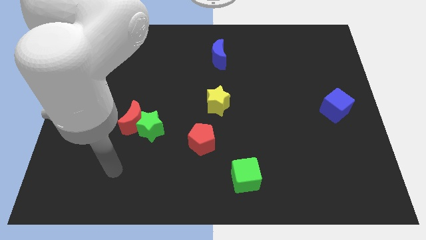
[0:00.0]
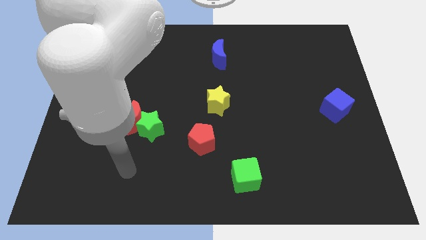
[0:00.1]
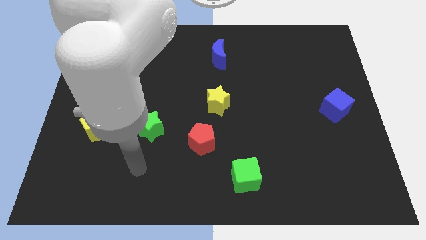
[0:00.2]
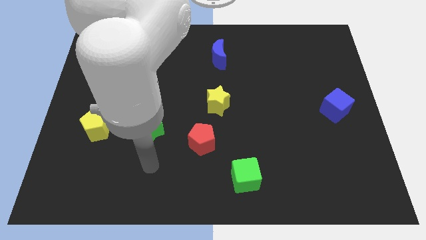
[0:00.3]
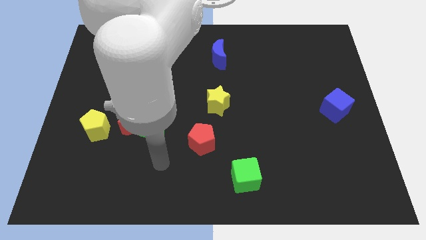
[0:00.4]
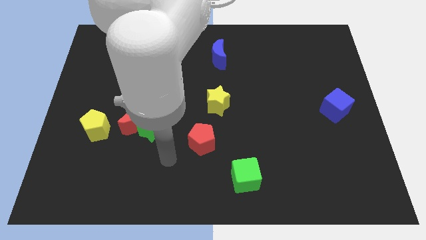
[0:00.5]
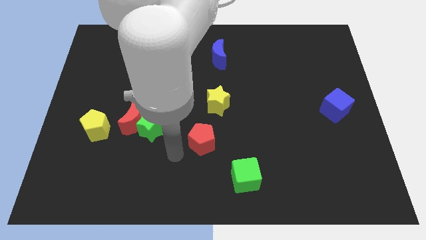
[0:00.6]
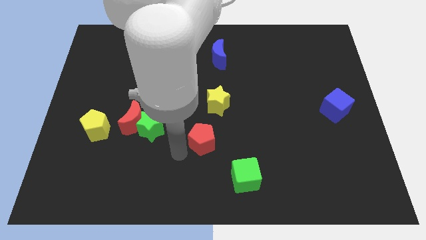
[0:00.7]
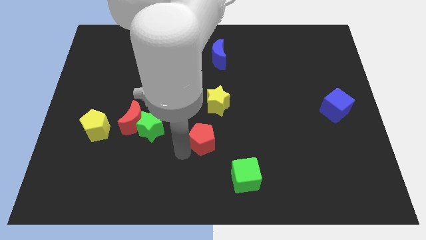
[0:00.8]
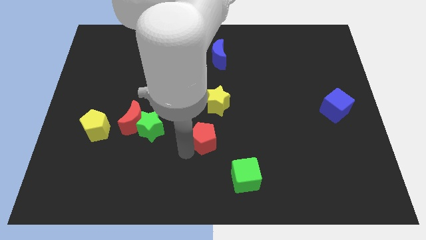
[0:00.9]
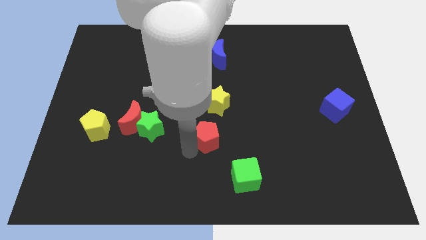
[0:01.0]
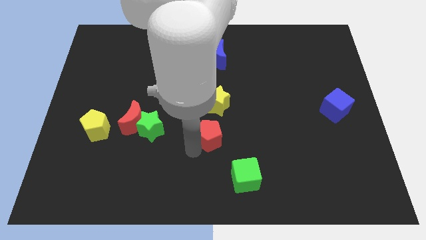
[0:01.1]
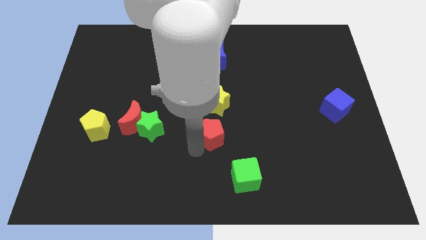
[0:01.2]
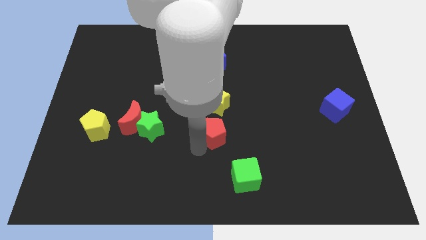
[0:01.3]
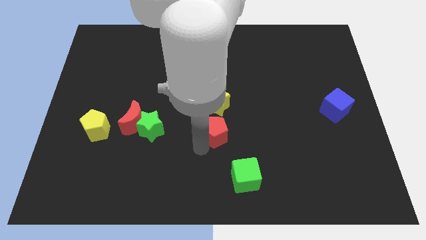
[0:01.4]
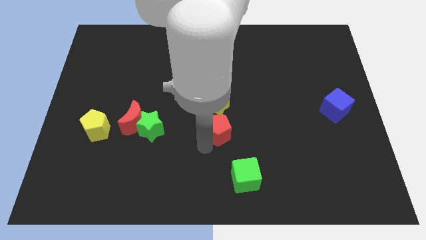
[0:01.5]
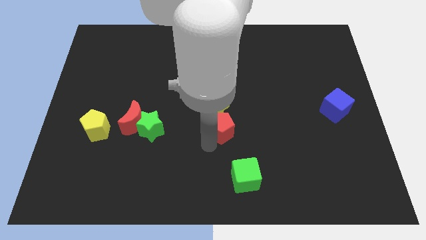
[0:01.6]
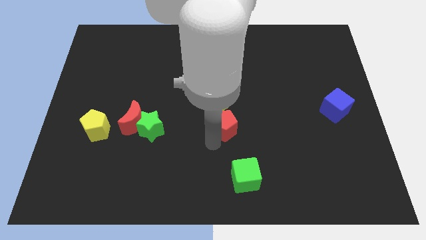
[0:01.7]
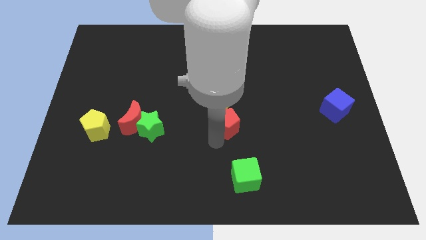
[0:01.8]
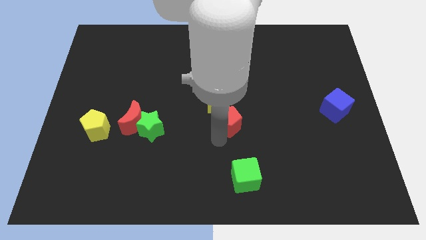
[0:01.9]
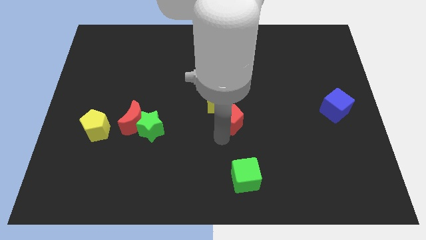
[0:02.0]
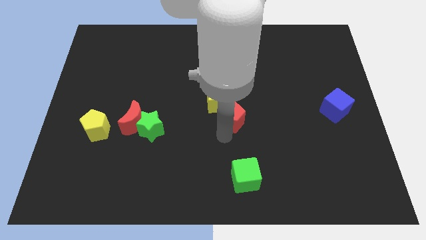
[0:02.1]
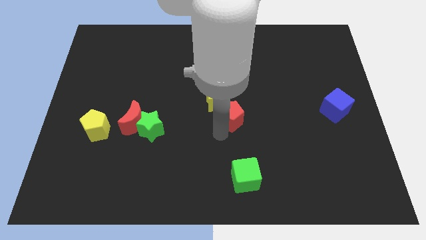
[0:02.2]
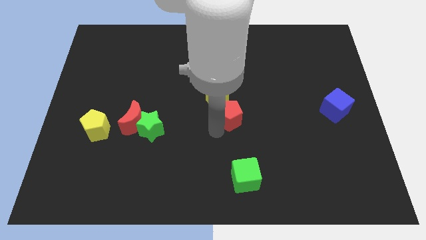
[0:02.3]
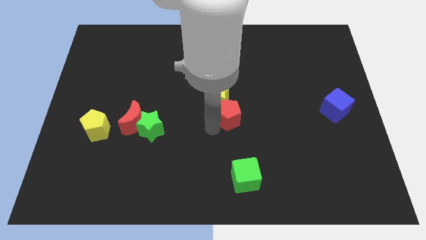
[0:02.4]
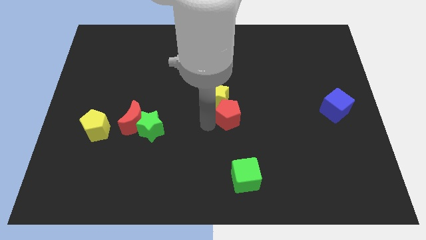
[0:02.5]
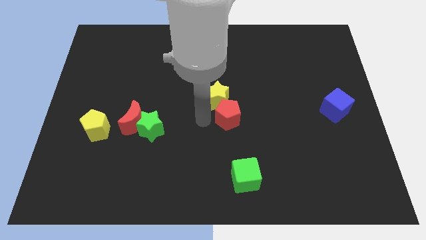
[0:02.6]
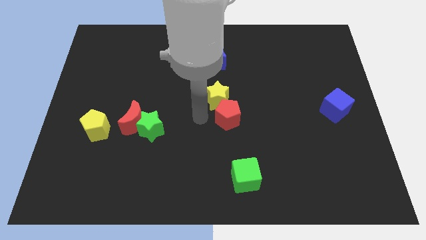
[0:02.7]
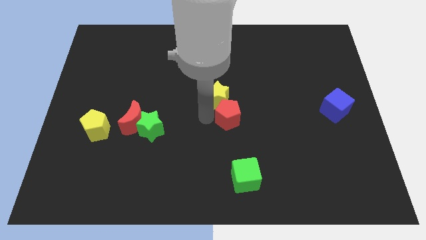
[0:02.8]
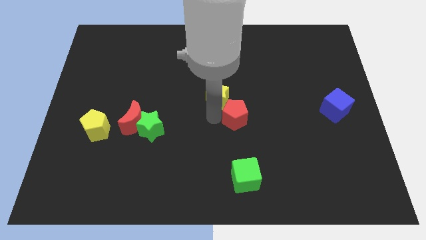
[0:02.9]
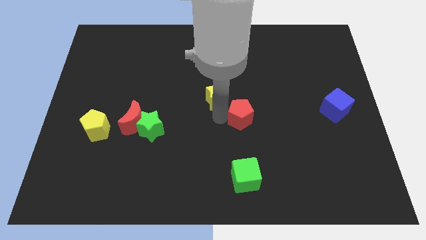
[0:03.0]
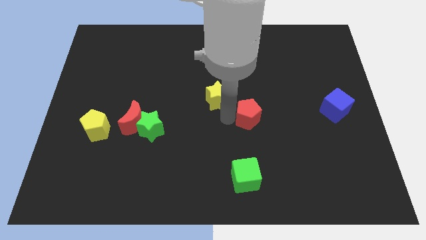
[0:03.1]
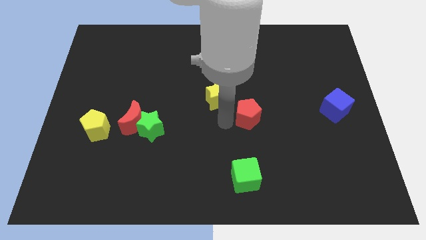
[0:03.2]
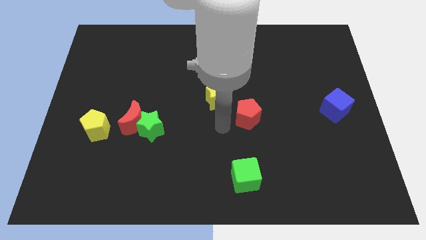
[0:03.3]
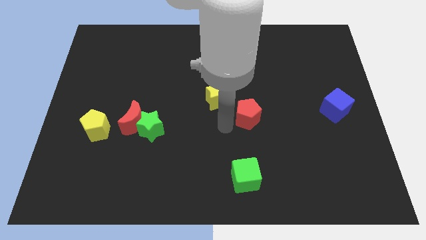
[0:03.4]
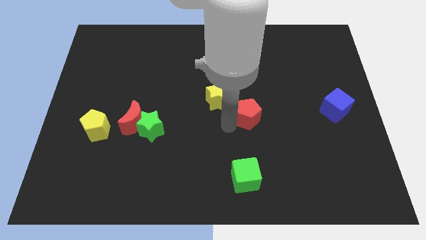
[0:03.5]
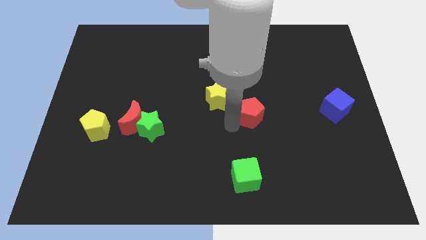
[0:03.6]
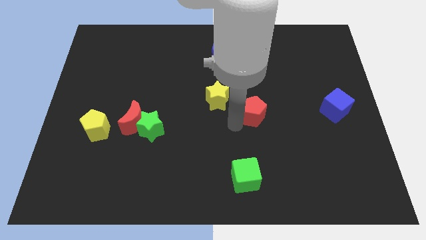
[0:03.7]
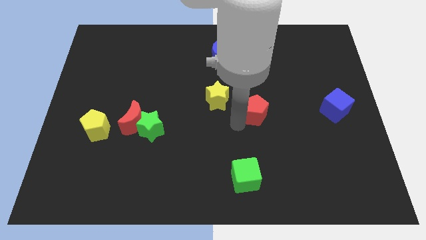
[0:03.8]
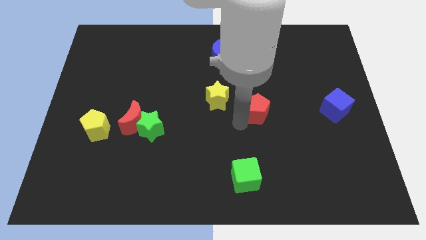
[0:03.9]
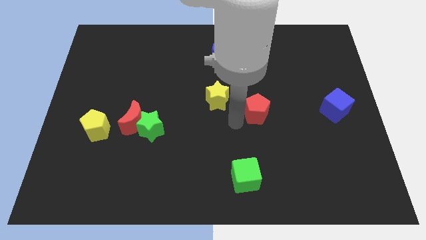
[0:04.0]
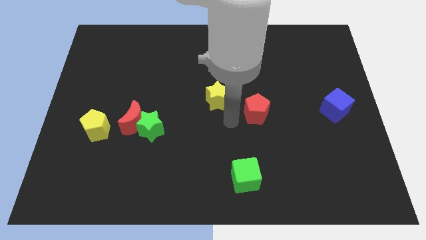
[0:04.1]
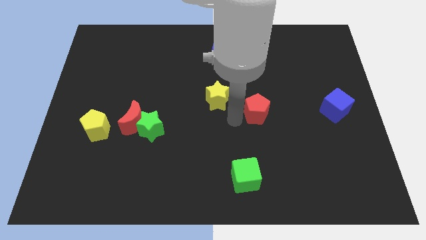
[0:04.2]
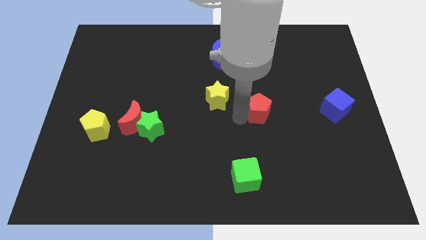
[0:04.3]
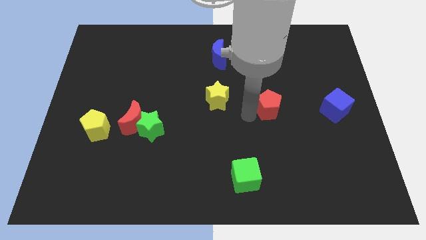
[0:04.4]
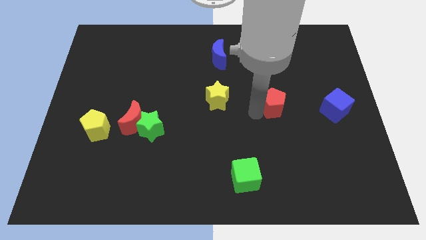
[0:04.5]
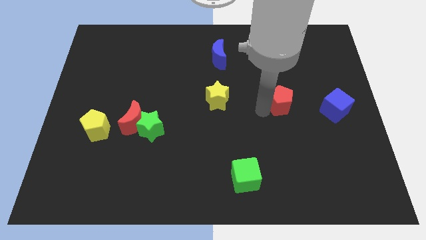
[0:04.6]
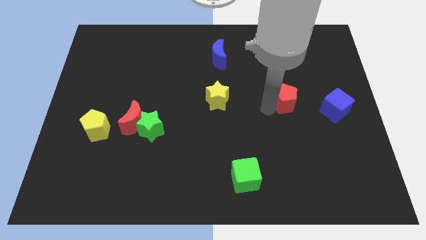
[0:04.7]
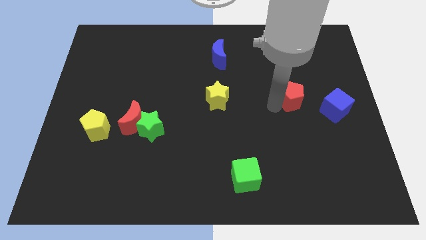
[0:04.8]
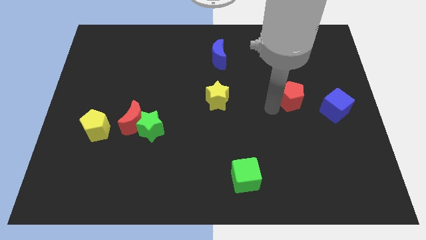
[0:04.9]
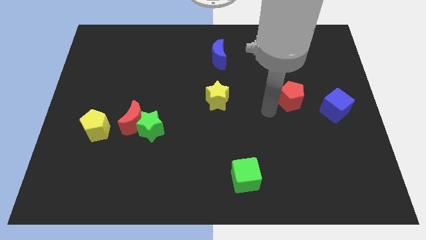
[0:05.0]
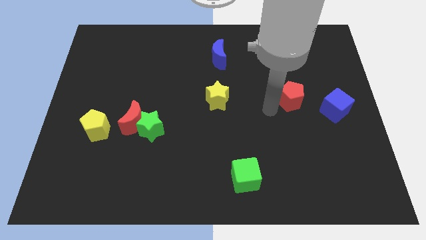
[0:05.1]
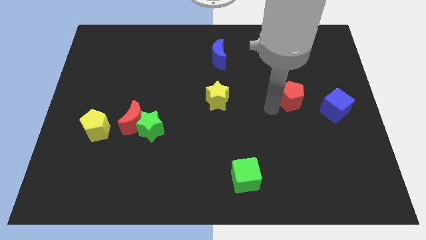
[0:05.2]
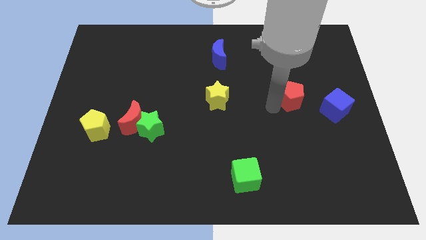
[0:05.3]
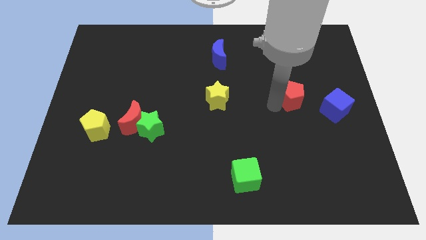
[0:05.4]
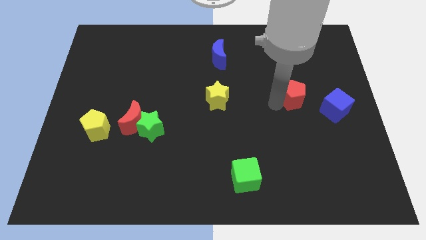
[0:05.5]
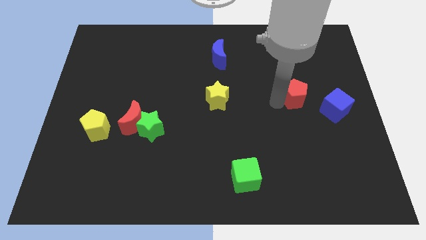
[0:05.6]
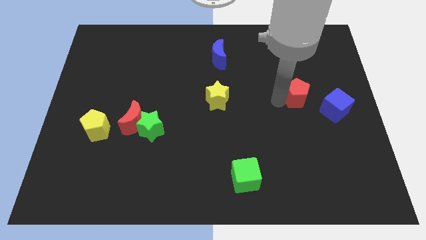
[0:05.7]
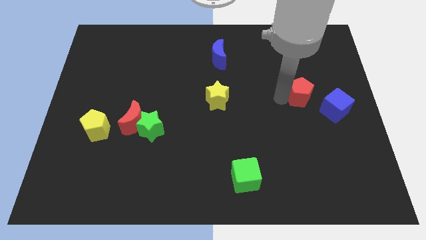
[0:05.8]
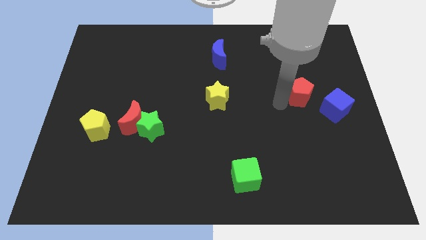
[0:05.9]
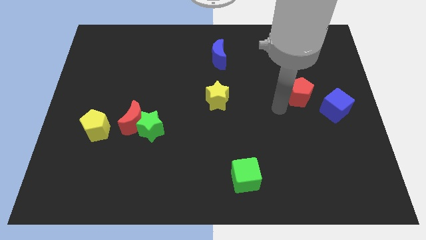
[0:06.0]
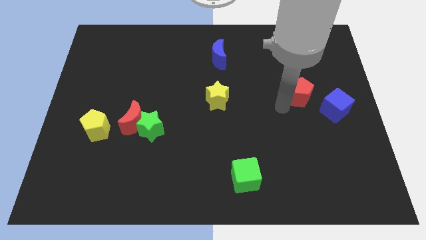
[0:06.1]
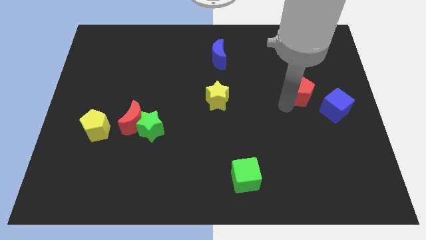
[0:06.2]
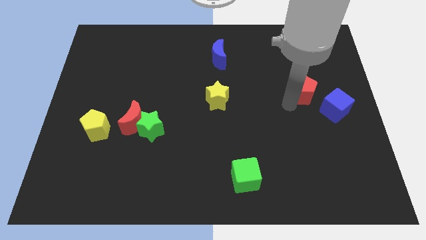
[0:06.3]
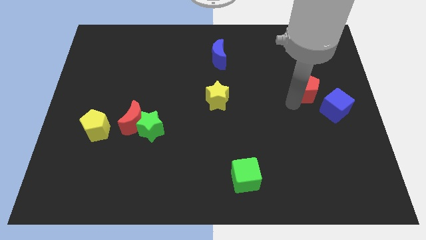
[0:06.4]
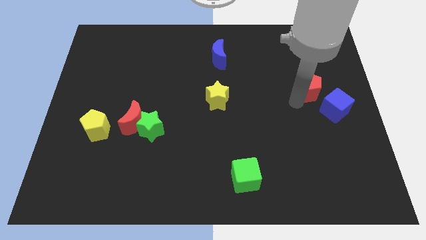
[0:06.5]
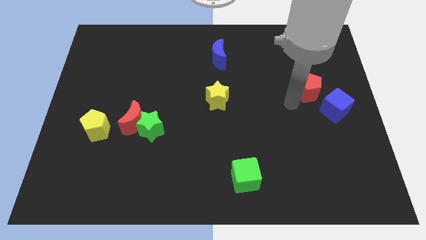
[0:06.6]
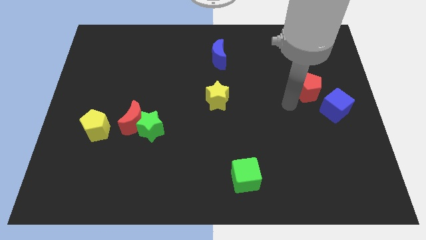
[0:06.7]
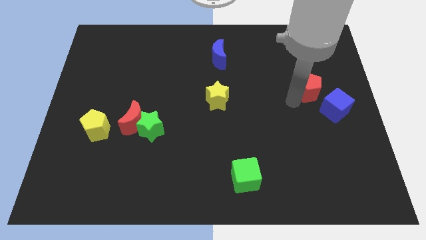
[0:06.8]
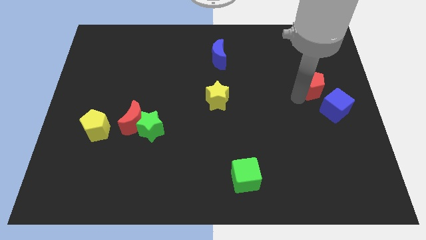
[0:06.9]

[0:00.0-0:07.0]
move the red pentagon to the top of the blue cube

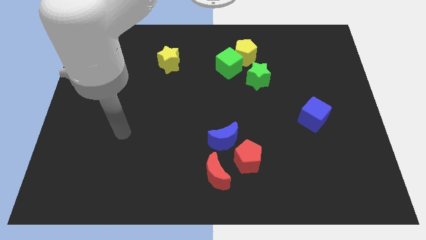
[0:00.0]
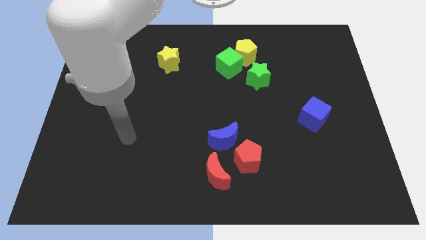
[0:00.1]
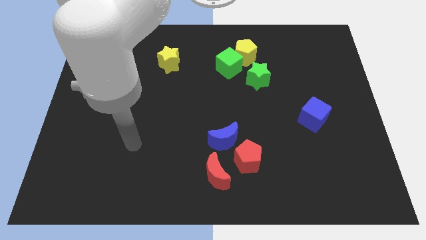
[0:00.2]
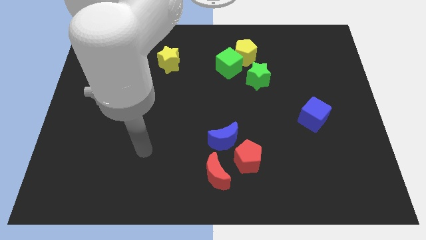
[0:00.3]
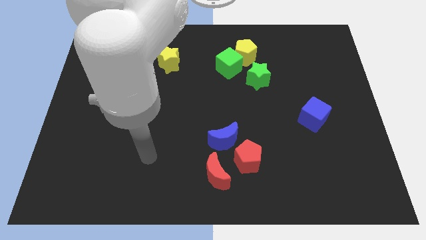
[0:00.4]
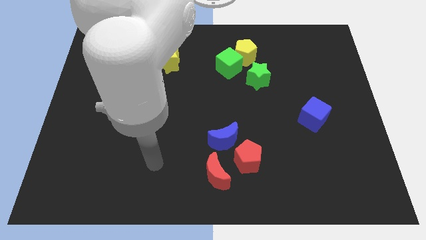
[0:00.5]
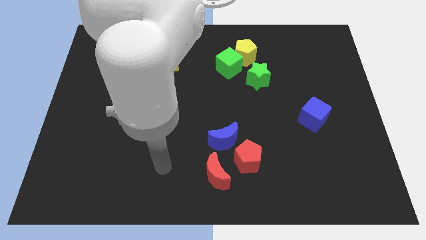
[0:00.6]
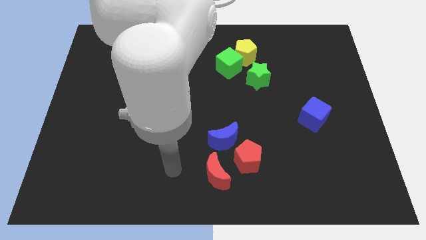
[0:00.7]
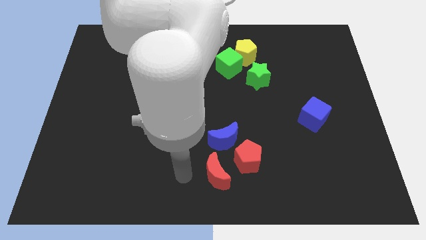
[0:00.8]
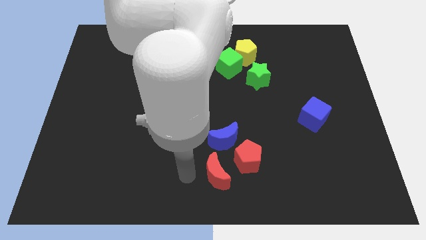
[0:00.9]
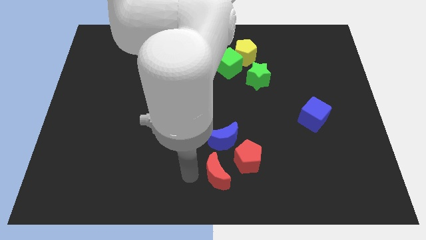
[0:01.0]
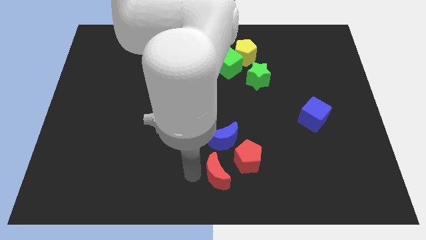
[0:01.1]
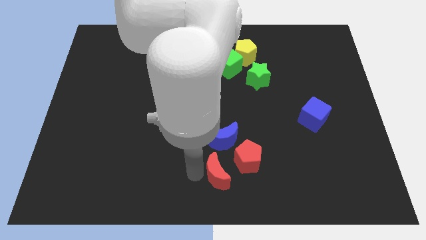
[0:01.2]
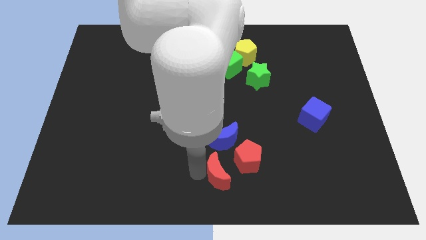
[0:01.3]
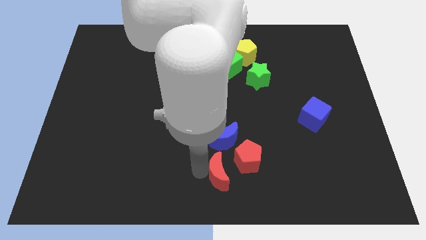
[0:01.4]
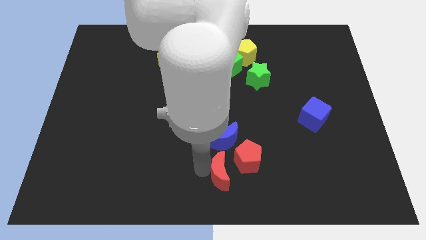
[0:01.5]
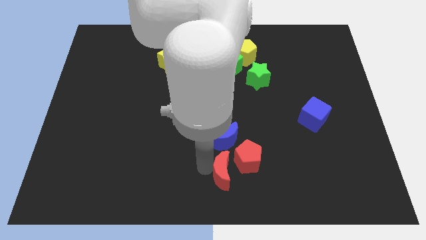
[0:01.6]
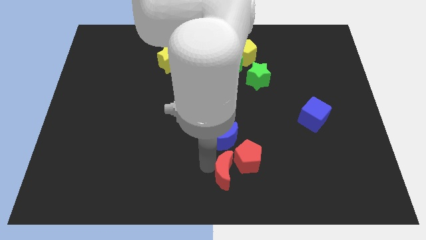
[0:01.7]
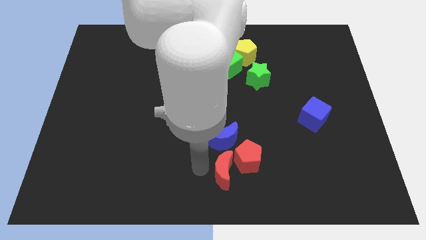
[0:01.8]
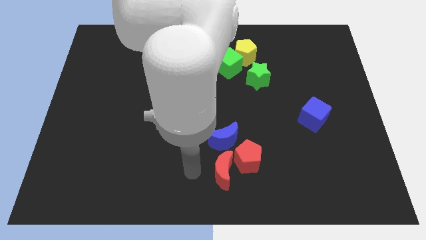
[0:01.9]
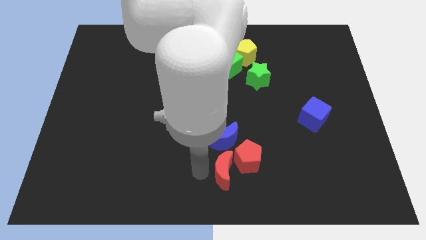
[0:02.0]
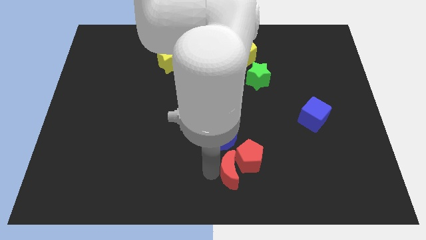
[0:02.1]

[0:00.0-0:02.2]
push the red moon to the bottom right side of the blue moon
